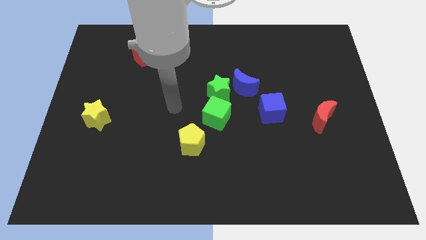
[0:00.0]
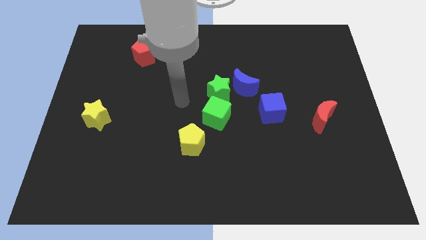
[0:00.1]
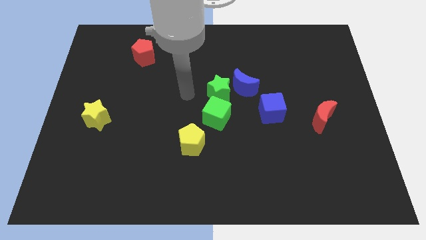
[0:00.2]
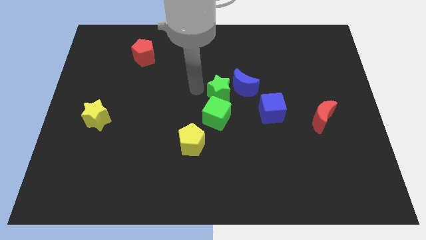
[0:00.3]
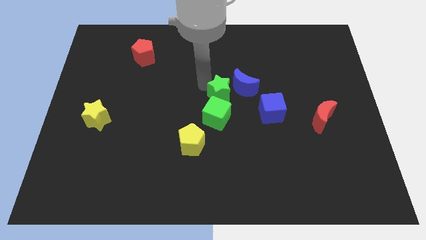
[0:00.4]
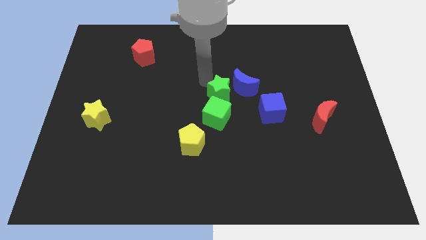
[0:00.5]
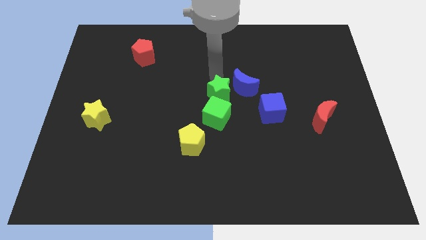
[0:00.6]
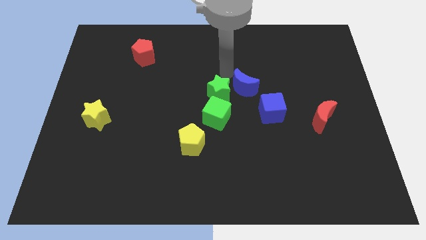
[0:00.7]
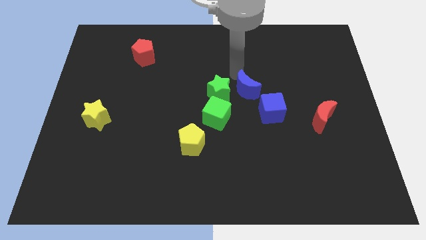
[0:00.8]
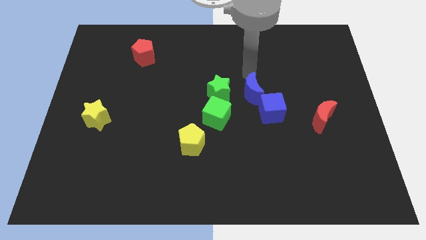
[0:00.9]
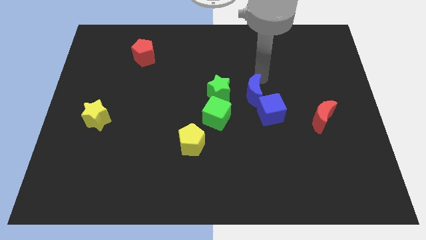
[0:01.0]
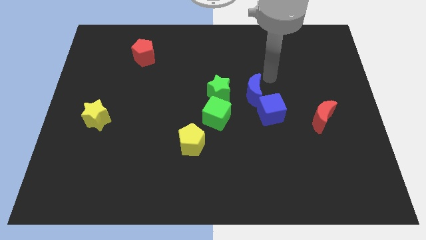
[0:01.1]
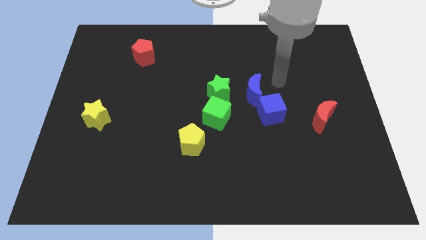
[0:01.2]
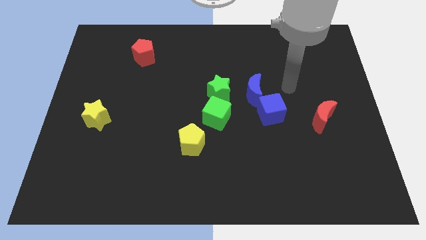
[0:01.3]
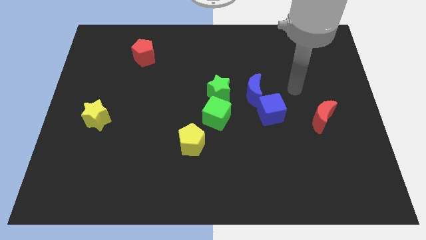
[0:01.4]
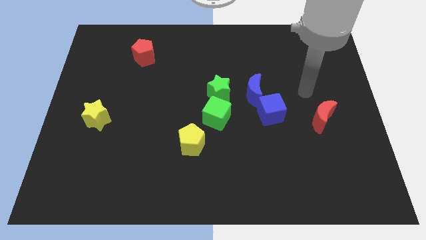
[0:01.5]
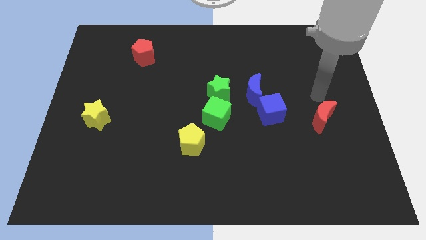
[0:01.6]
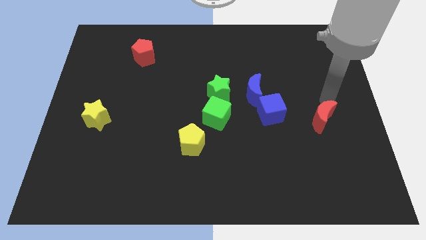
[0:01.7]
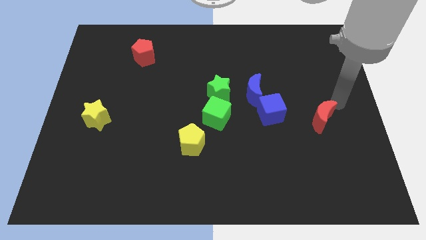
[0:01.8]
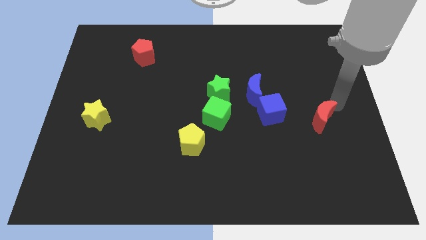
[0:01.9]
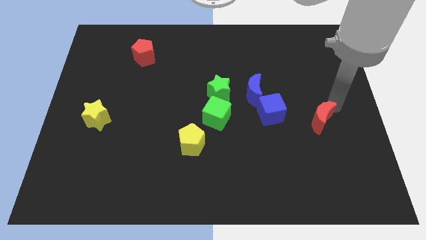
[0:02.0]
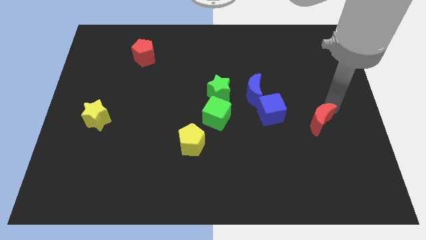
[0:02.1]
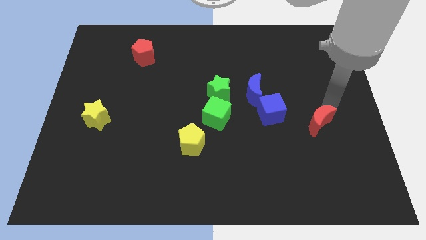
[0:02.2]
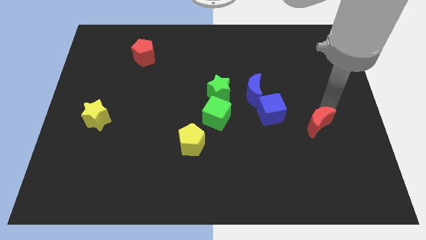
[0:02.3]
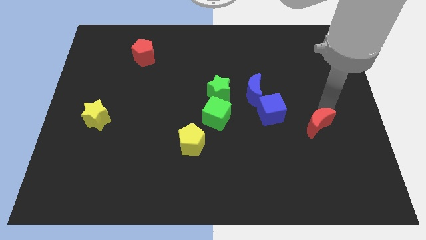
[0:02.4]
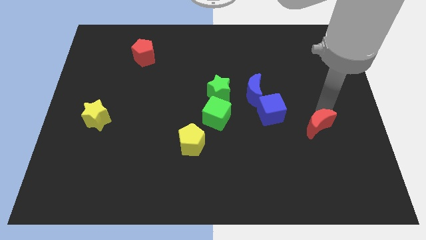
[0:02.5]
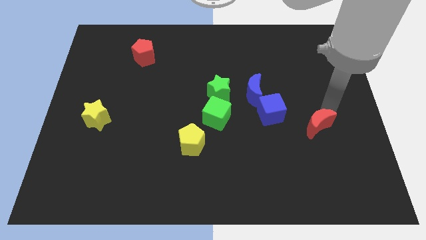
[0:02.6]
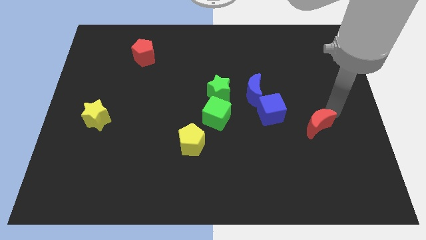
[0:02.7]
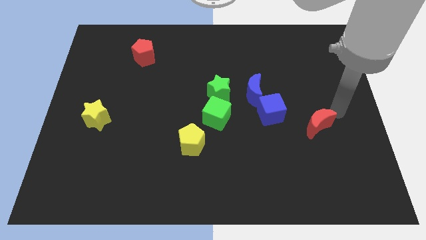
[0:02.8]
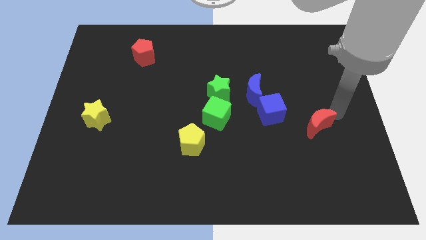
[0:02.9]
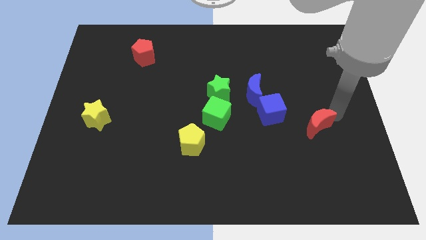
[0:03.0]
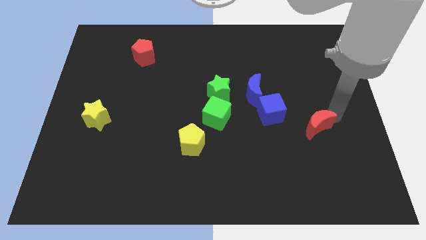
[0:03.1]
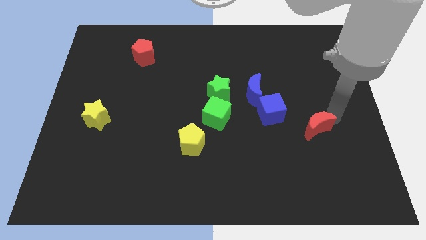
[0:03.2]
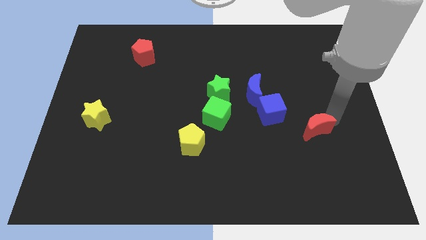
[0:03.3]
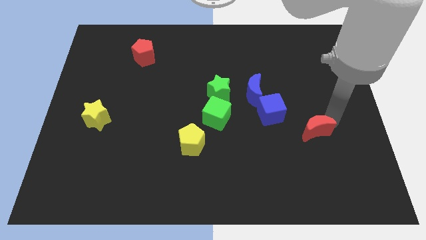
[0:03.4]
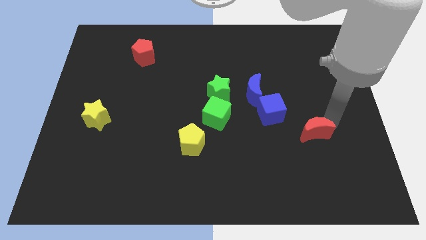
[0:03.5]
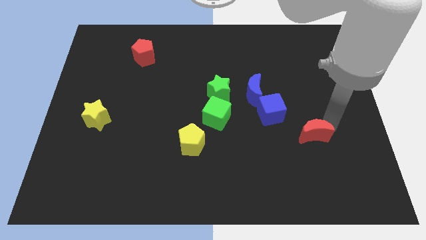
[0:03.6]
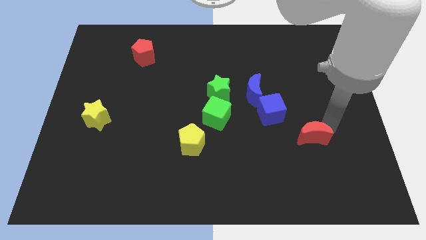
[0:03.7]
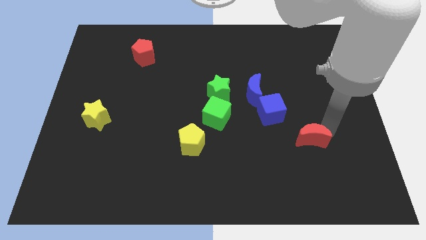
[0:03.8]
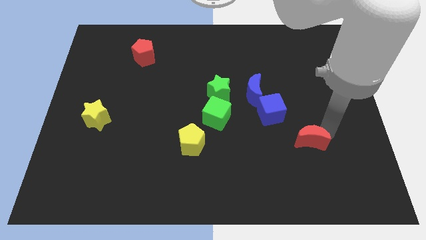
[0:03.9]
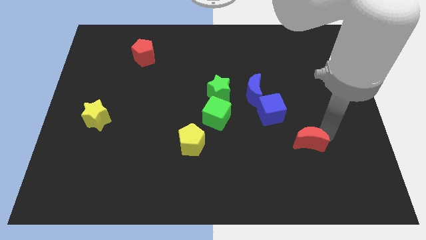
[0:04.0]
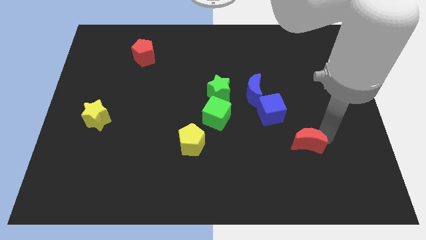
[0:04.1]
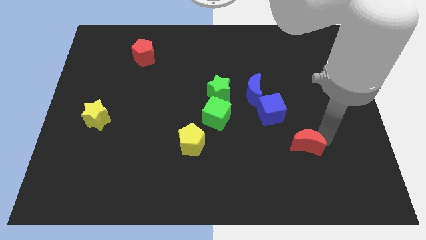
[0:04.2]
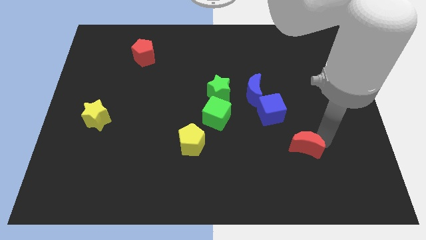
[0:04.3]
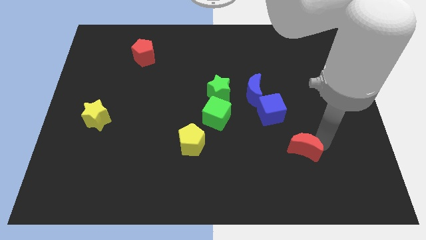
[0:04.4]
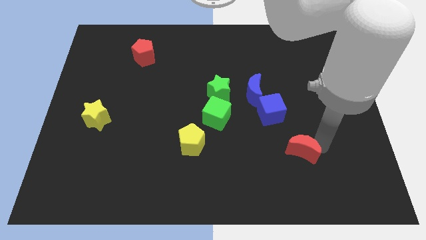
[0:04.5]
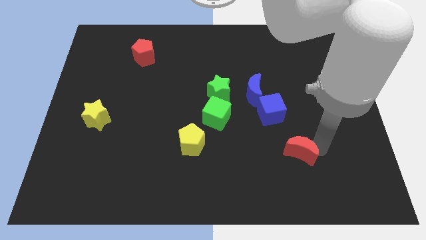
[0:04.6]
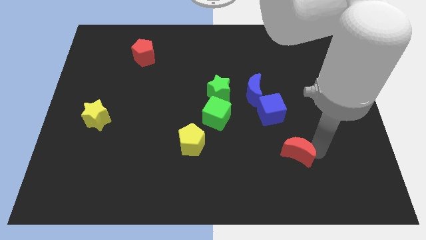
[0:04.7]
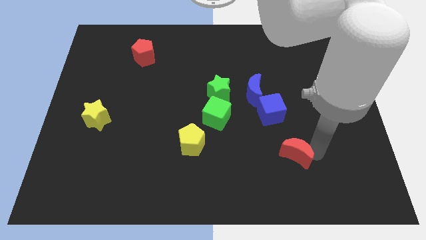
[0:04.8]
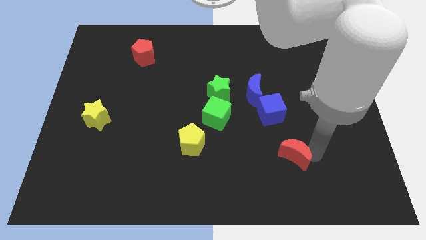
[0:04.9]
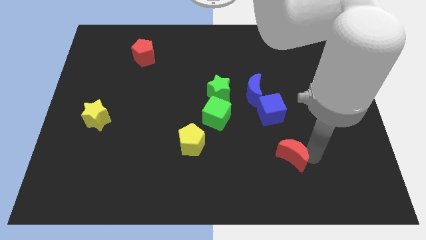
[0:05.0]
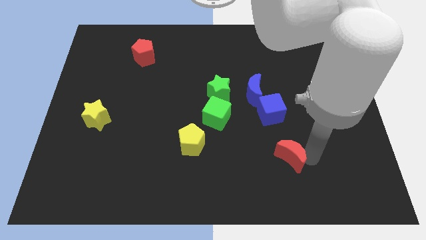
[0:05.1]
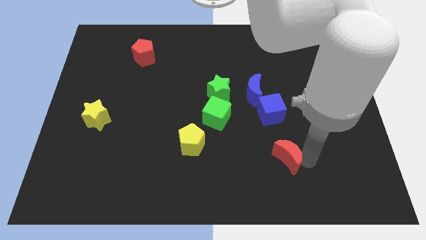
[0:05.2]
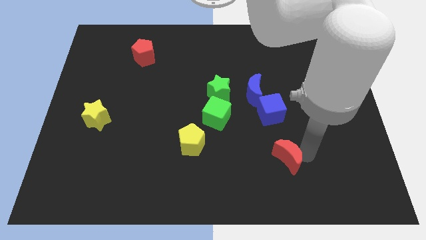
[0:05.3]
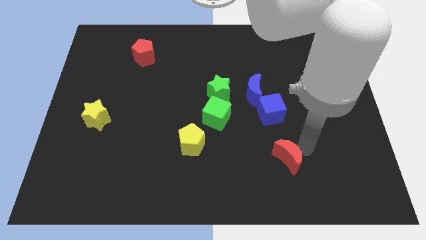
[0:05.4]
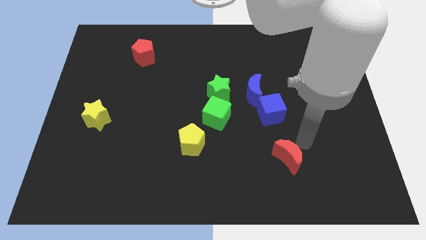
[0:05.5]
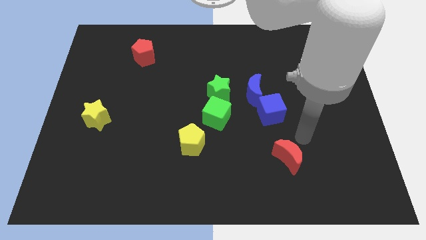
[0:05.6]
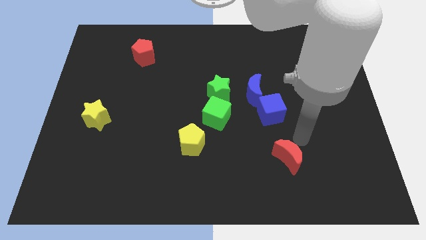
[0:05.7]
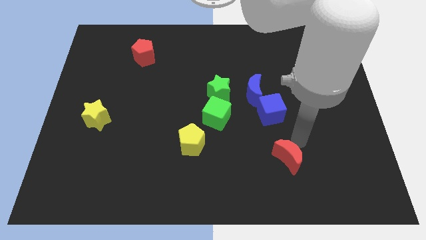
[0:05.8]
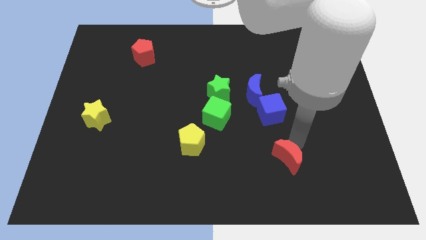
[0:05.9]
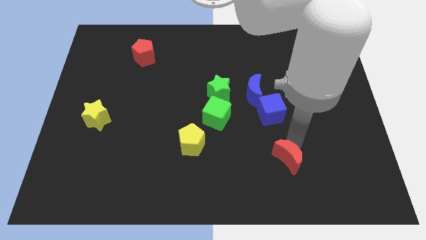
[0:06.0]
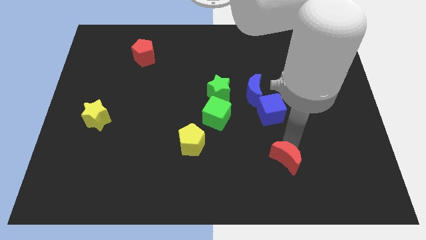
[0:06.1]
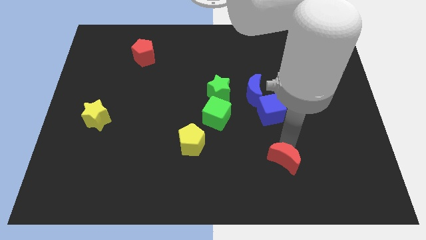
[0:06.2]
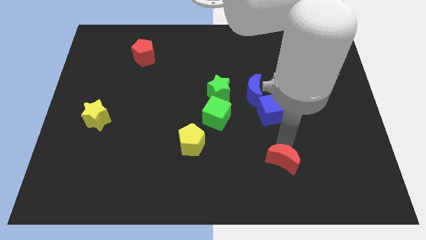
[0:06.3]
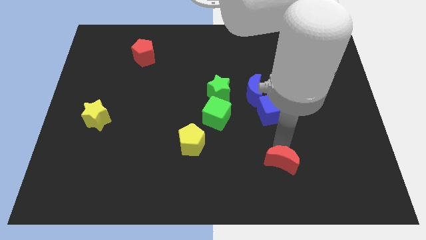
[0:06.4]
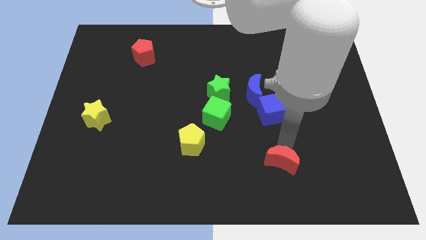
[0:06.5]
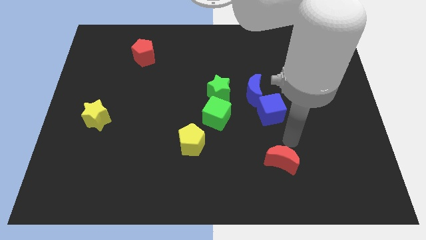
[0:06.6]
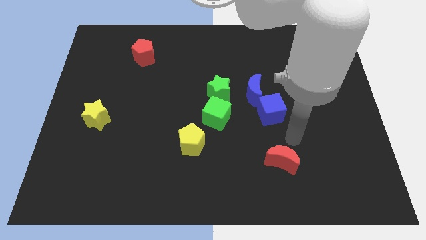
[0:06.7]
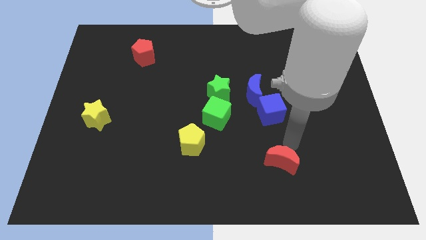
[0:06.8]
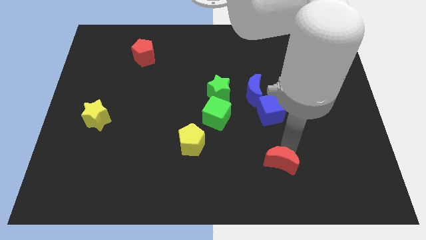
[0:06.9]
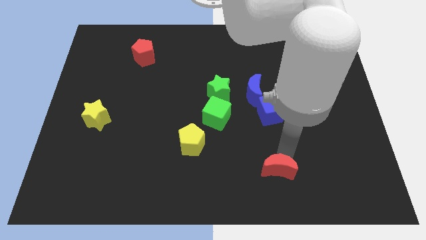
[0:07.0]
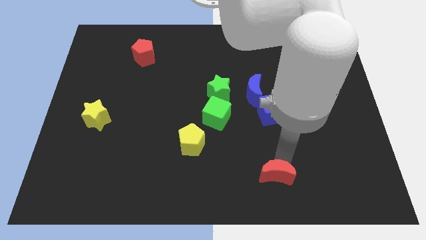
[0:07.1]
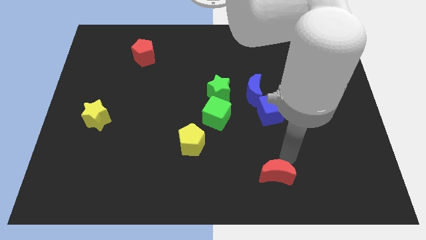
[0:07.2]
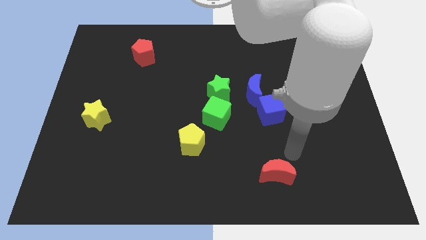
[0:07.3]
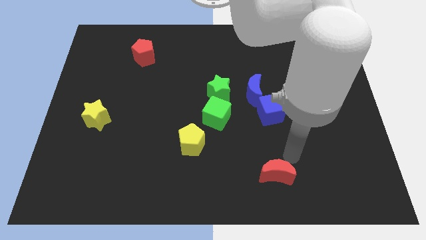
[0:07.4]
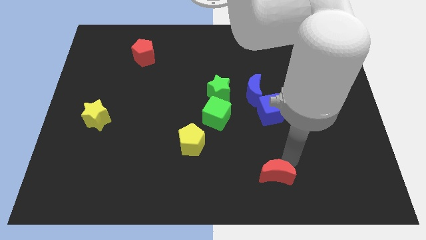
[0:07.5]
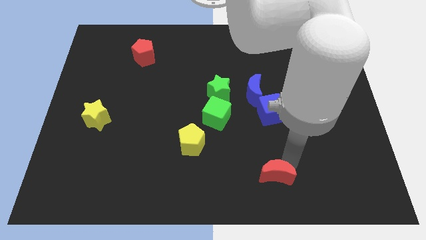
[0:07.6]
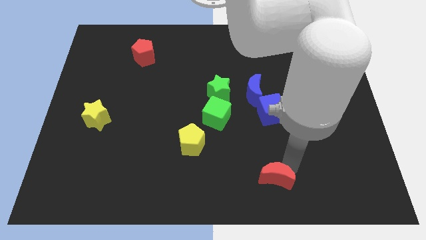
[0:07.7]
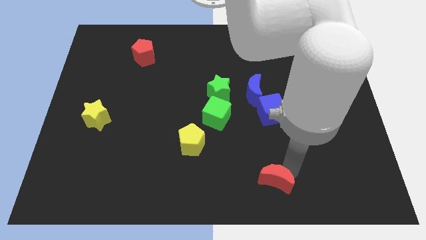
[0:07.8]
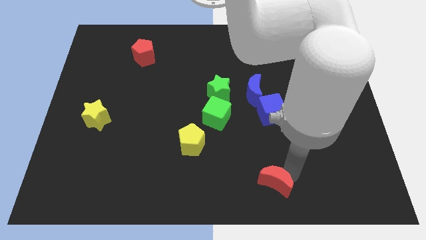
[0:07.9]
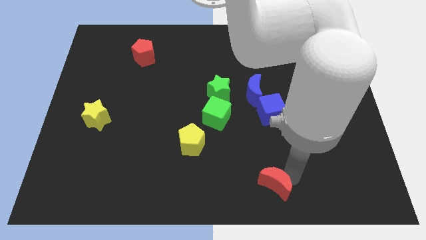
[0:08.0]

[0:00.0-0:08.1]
push the red moon to the bottom side
